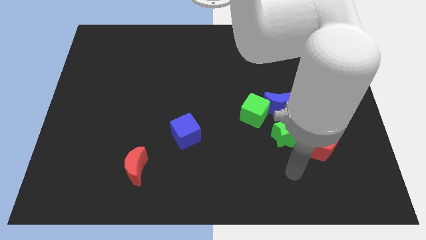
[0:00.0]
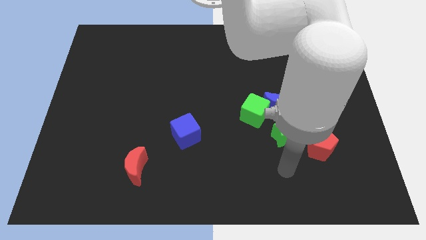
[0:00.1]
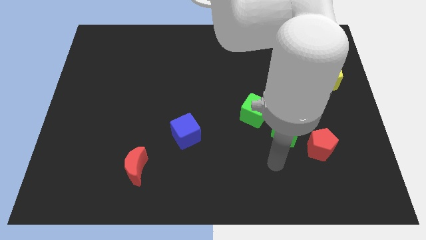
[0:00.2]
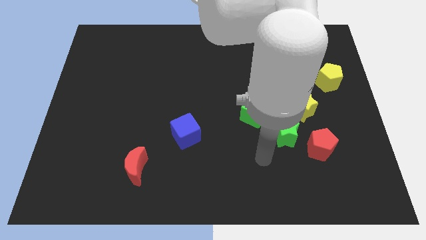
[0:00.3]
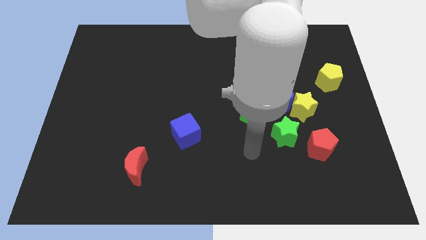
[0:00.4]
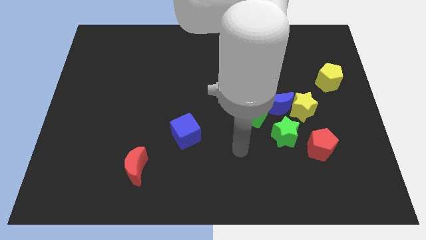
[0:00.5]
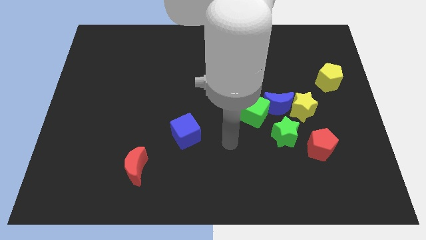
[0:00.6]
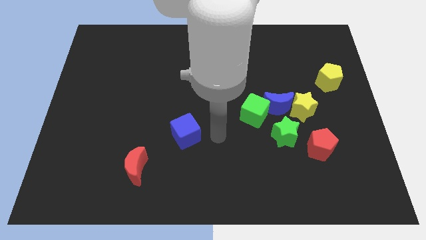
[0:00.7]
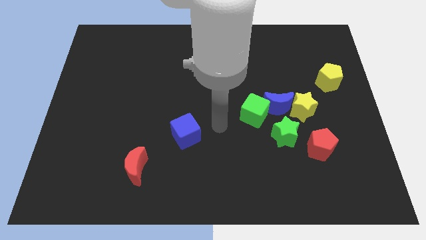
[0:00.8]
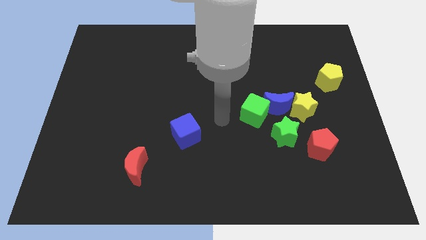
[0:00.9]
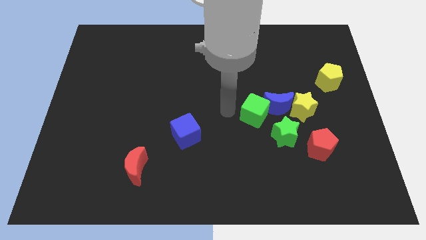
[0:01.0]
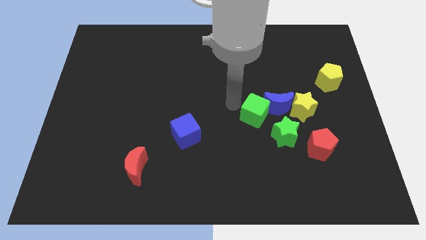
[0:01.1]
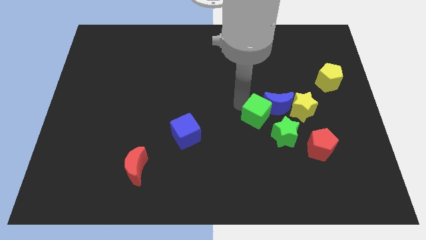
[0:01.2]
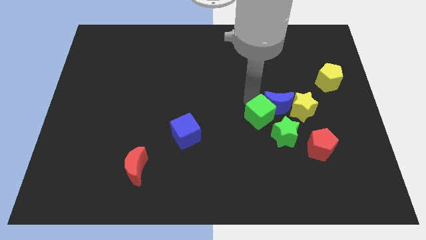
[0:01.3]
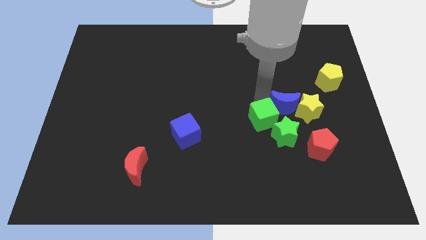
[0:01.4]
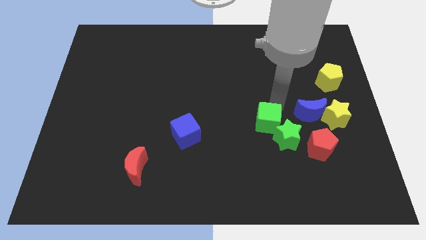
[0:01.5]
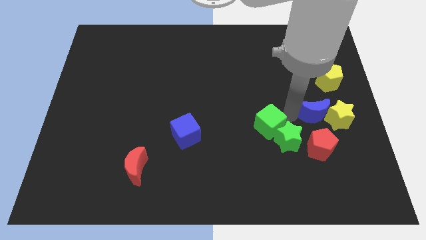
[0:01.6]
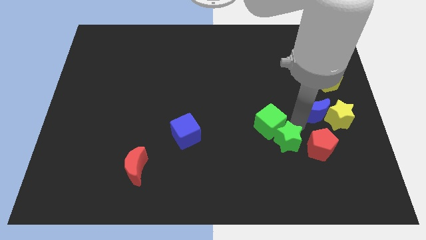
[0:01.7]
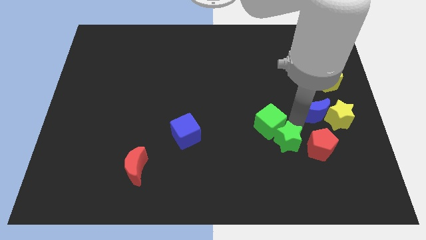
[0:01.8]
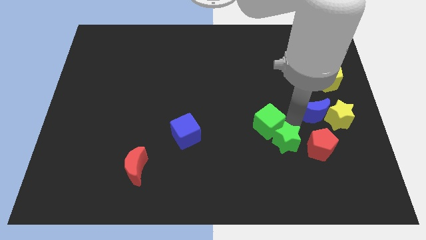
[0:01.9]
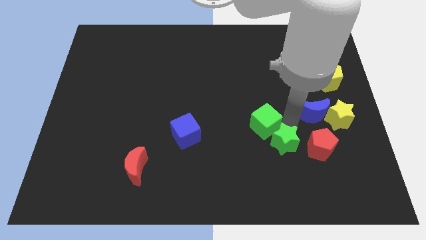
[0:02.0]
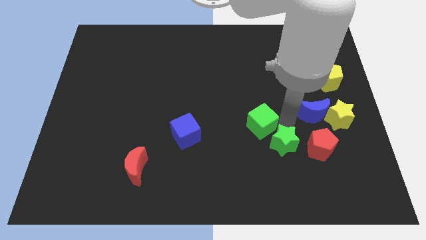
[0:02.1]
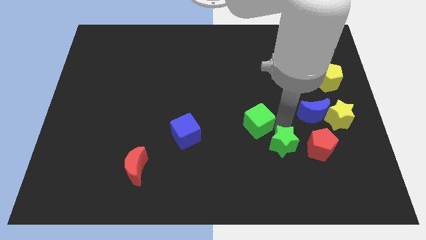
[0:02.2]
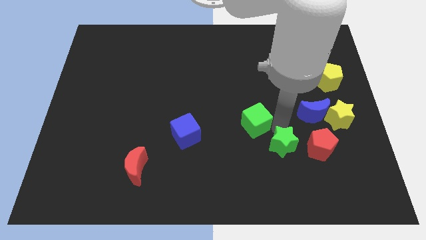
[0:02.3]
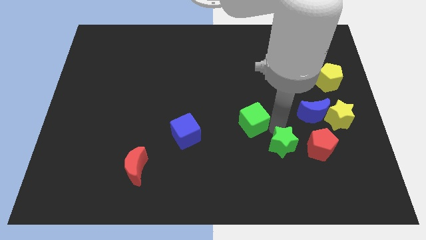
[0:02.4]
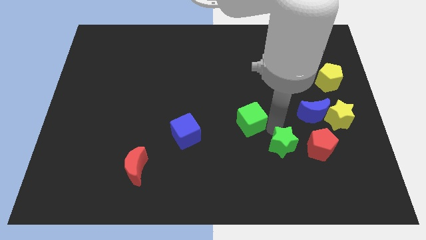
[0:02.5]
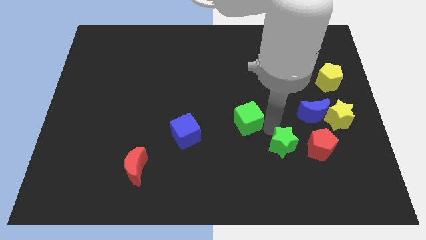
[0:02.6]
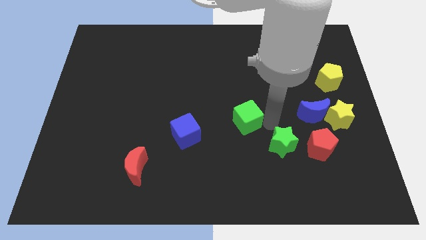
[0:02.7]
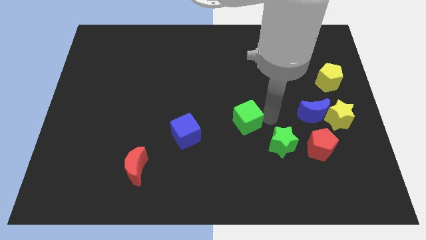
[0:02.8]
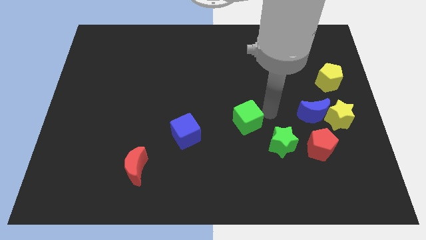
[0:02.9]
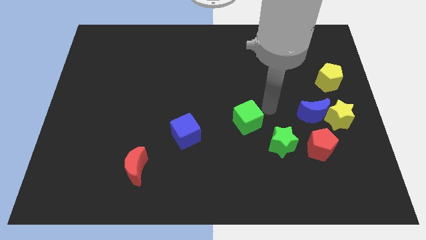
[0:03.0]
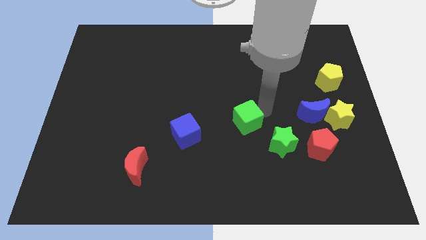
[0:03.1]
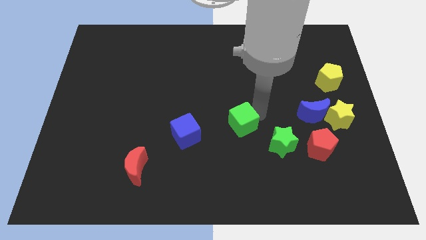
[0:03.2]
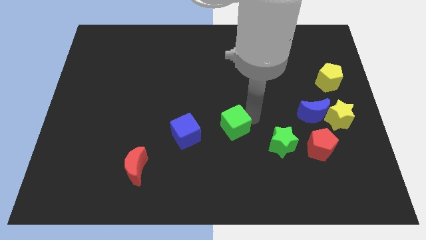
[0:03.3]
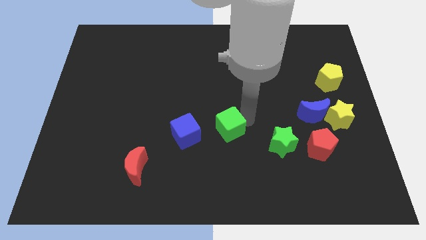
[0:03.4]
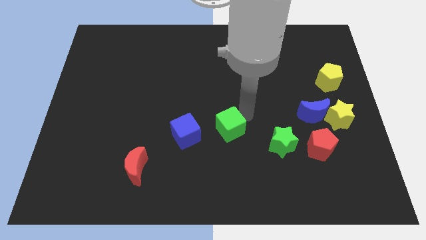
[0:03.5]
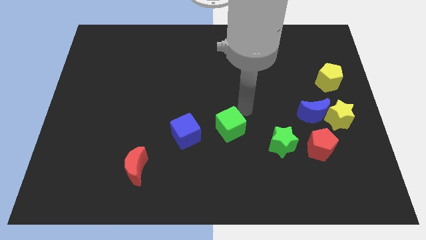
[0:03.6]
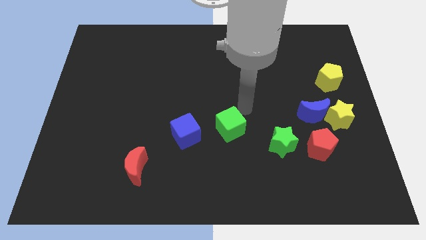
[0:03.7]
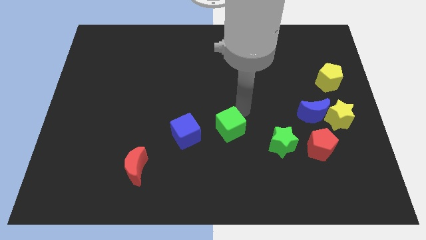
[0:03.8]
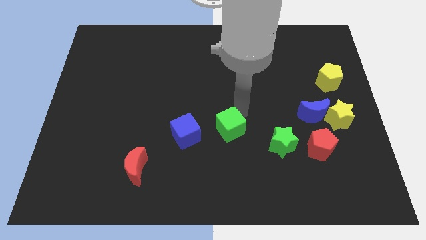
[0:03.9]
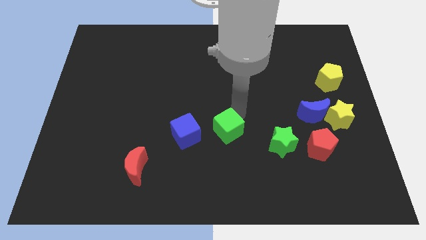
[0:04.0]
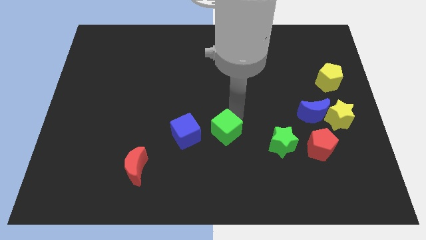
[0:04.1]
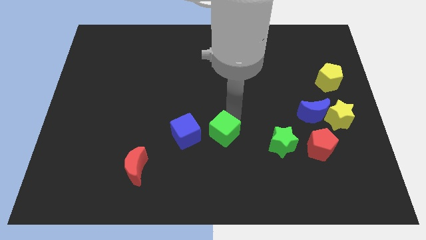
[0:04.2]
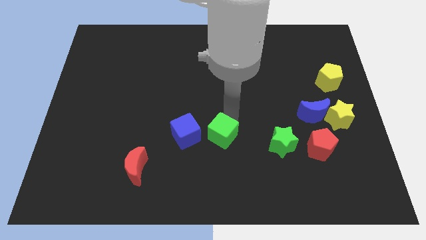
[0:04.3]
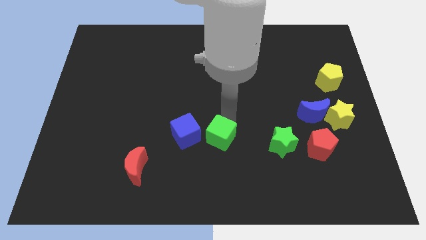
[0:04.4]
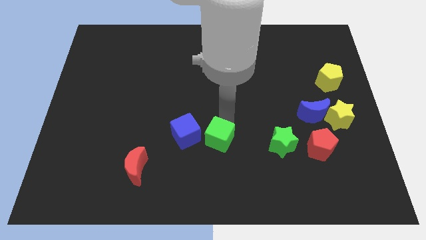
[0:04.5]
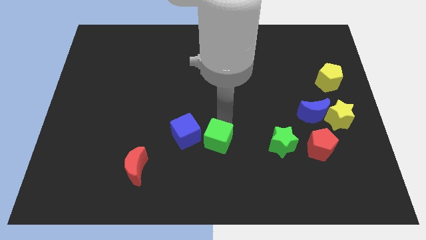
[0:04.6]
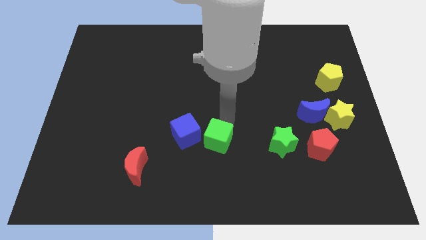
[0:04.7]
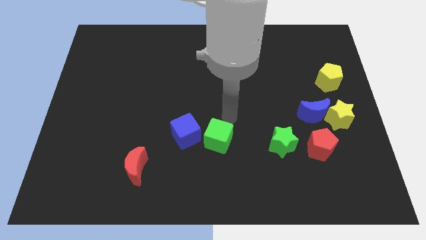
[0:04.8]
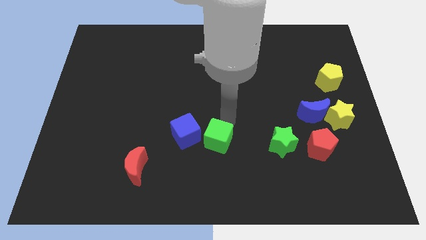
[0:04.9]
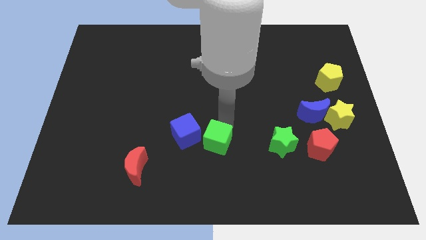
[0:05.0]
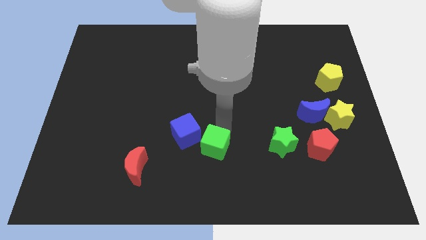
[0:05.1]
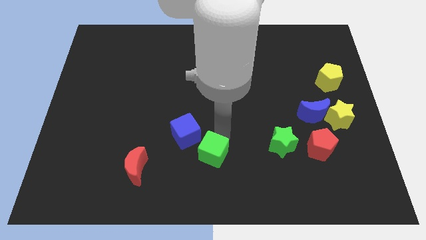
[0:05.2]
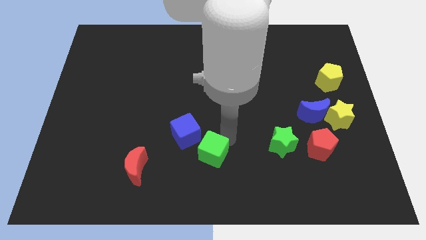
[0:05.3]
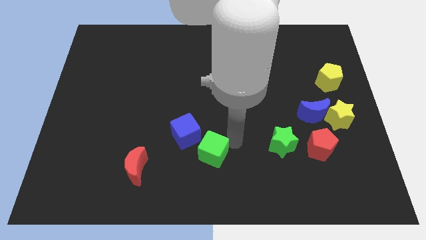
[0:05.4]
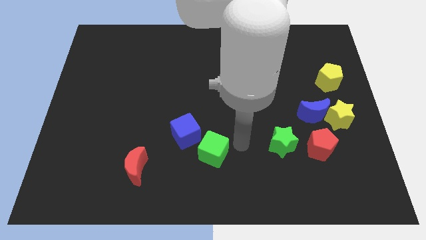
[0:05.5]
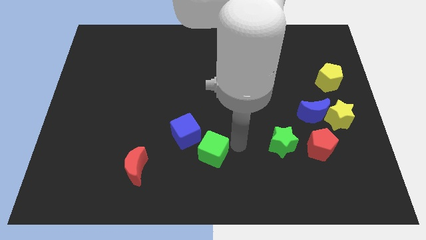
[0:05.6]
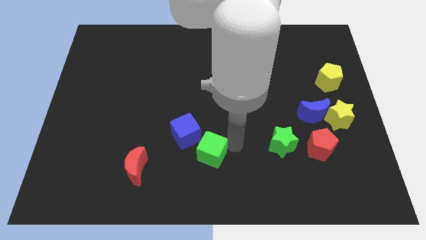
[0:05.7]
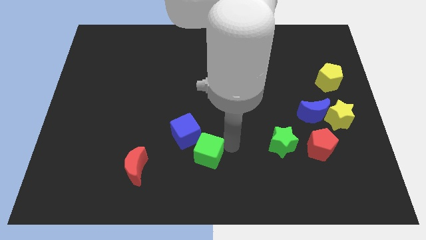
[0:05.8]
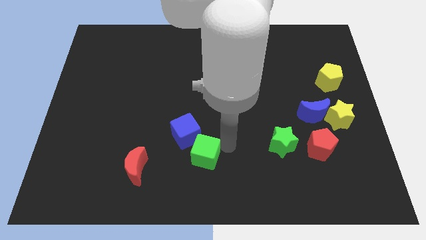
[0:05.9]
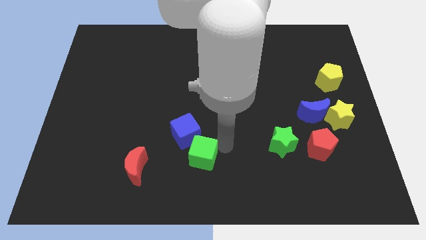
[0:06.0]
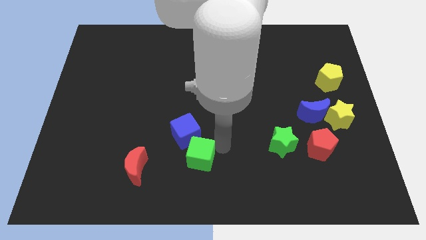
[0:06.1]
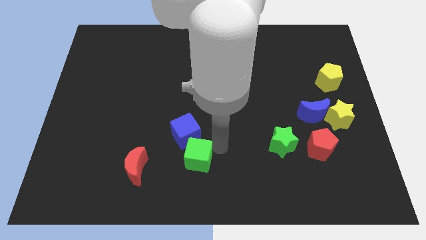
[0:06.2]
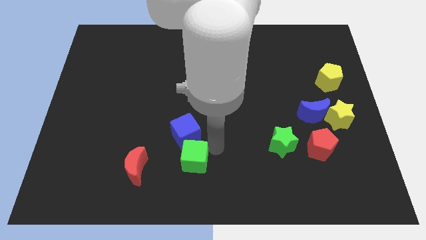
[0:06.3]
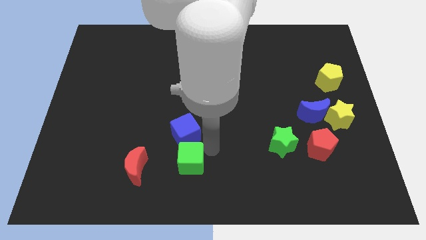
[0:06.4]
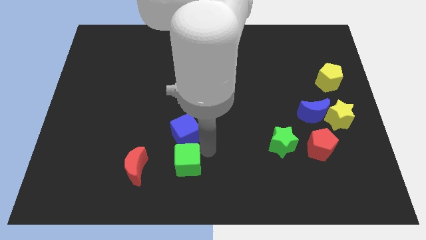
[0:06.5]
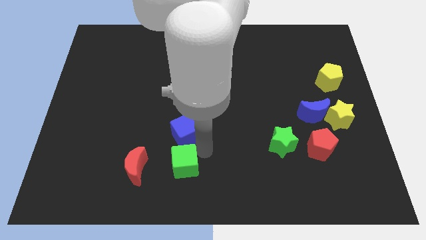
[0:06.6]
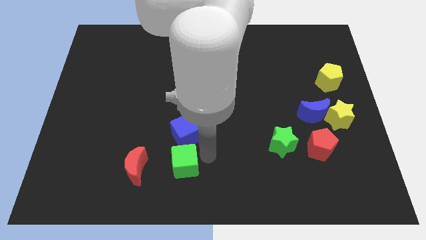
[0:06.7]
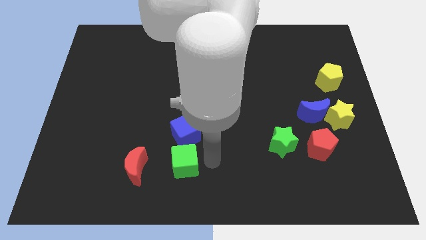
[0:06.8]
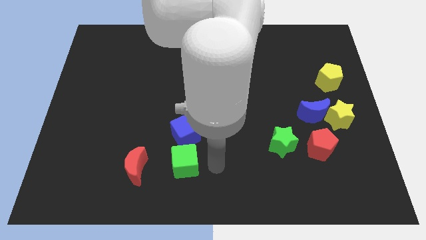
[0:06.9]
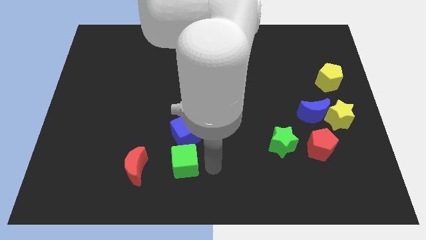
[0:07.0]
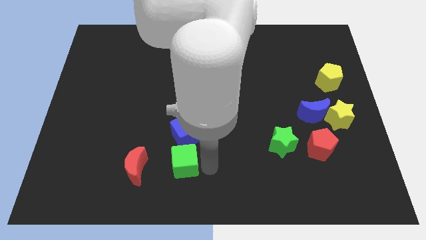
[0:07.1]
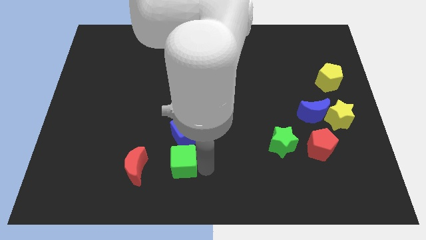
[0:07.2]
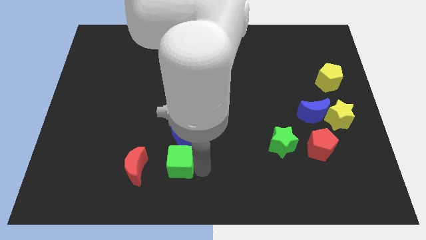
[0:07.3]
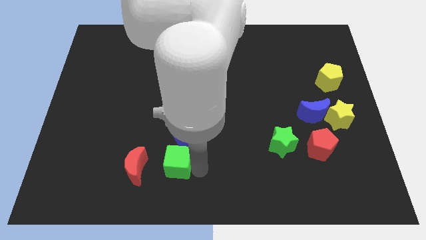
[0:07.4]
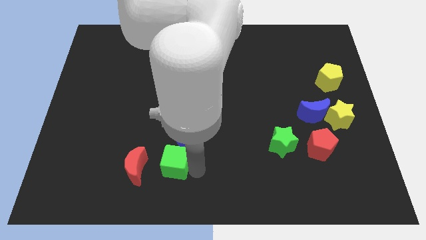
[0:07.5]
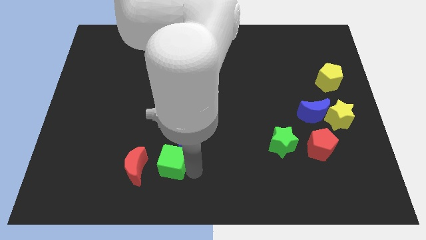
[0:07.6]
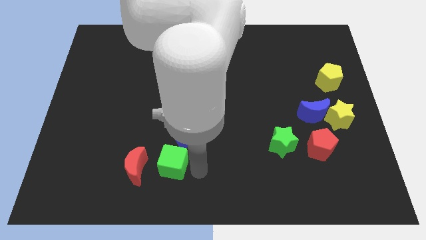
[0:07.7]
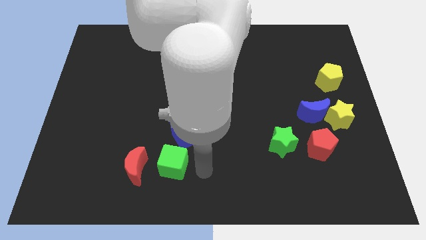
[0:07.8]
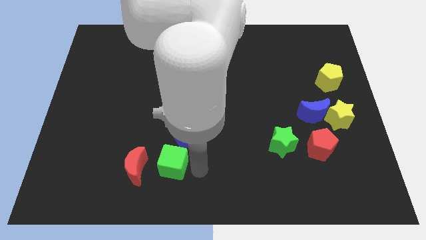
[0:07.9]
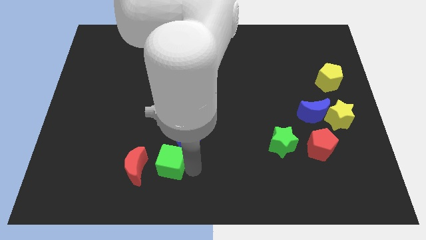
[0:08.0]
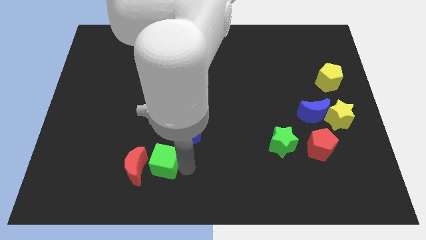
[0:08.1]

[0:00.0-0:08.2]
push the green cube to the red moon
